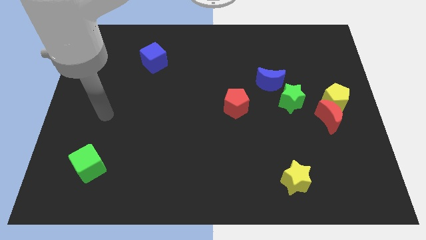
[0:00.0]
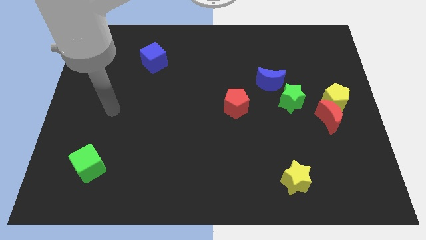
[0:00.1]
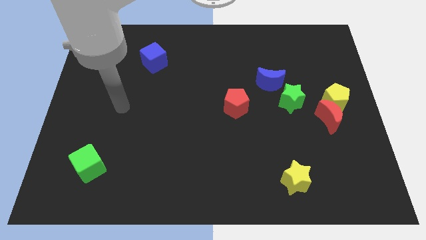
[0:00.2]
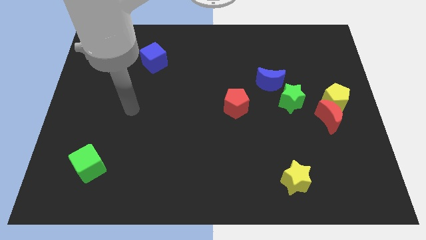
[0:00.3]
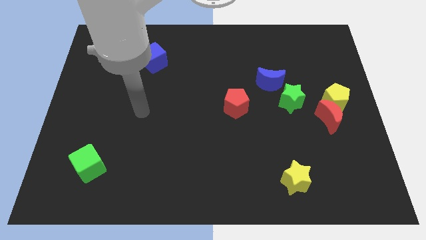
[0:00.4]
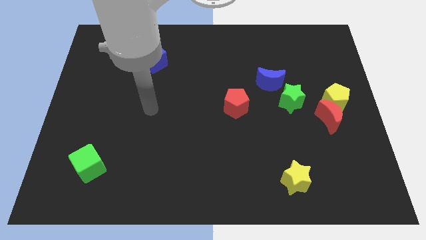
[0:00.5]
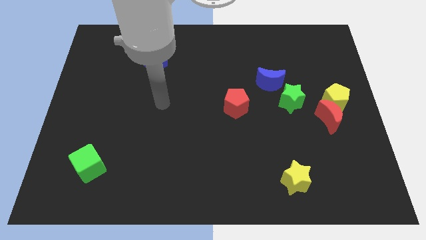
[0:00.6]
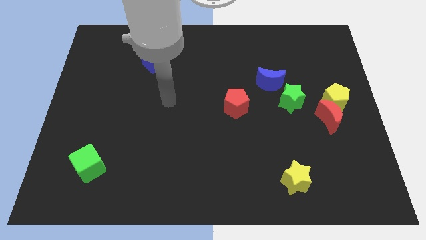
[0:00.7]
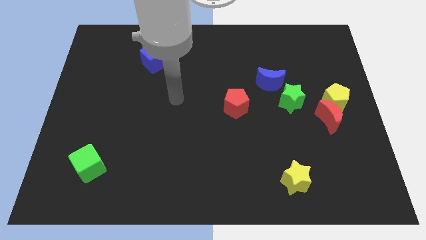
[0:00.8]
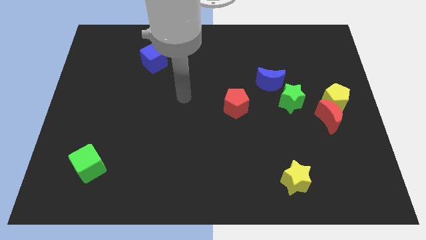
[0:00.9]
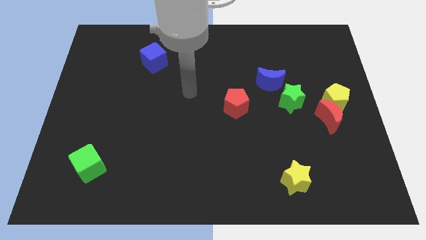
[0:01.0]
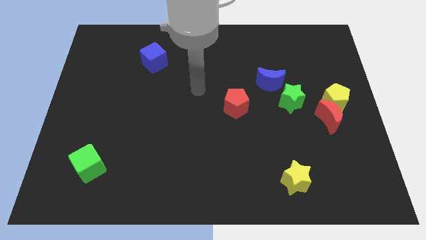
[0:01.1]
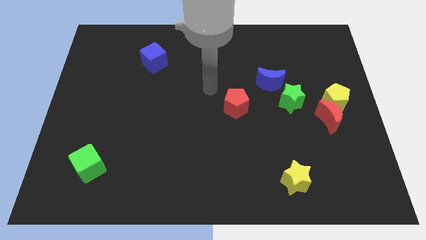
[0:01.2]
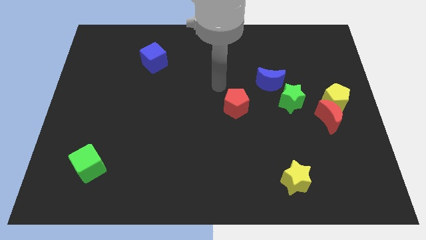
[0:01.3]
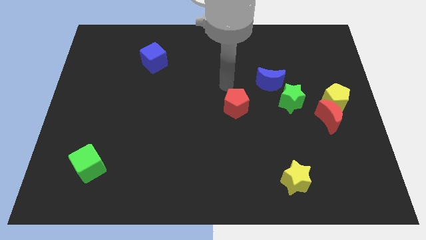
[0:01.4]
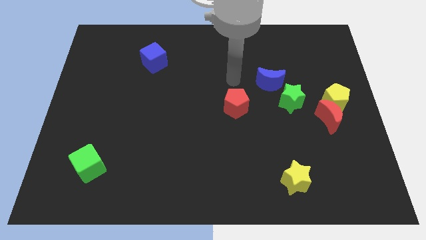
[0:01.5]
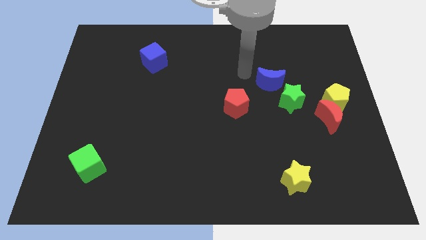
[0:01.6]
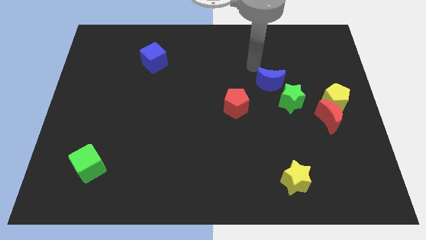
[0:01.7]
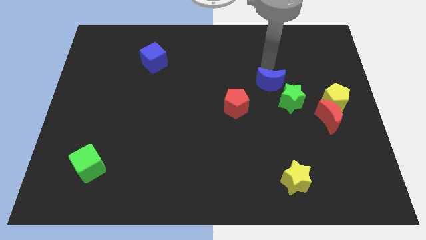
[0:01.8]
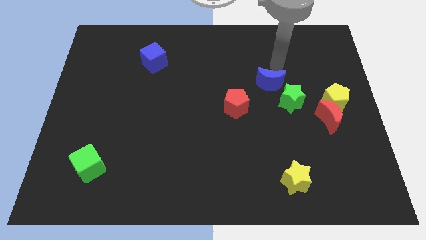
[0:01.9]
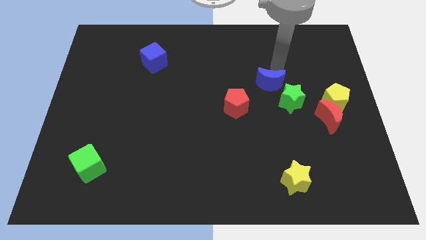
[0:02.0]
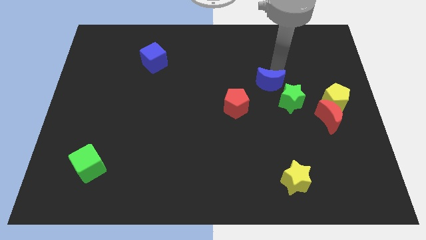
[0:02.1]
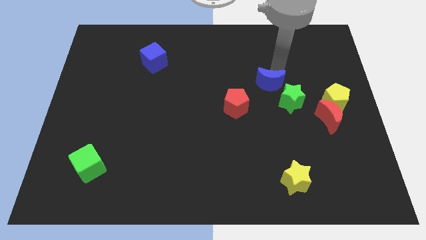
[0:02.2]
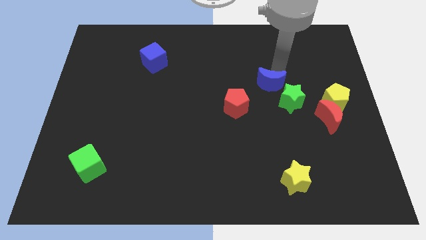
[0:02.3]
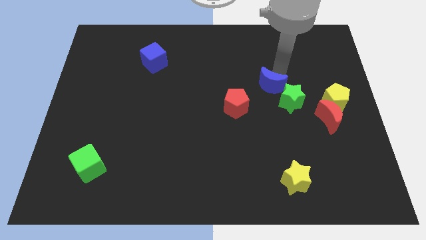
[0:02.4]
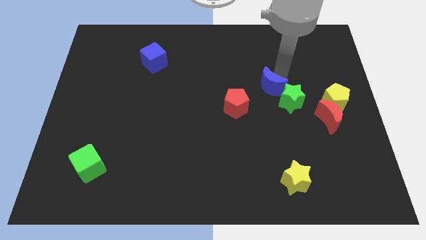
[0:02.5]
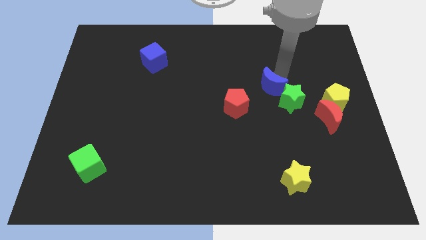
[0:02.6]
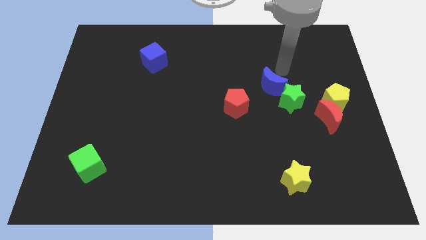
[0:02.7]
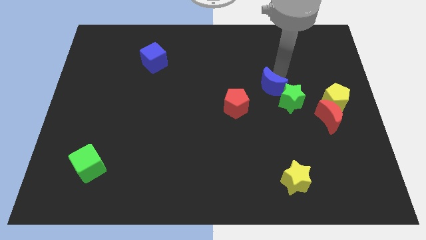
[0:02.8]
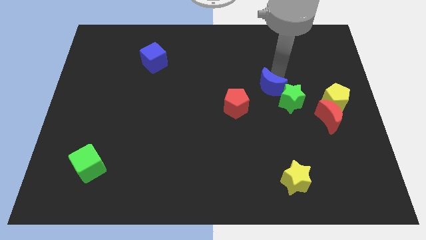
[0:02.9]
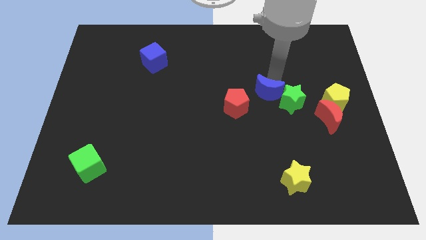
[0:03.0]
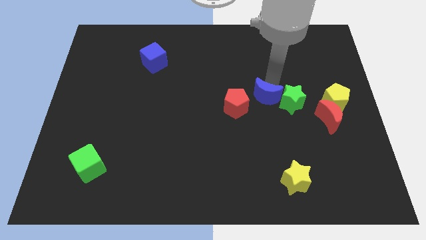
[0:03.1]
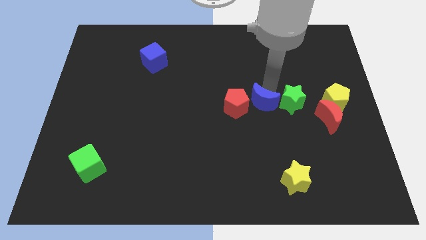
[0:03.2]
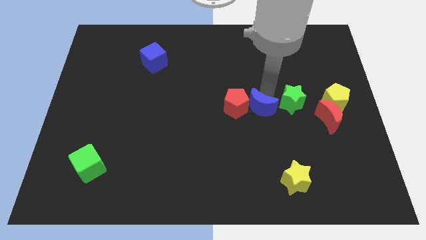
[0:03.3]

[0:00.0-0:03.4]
slightly slide the blue moon down and to the left diagonally

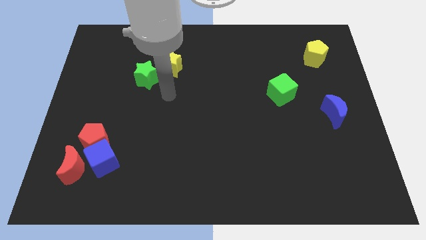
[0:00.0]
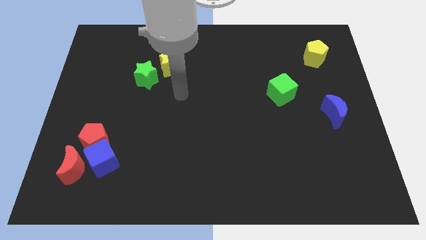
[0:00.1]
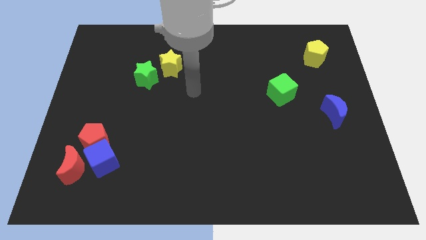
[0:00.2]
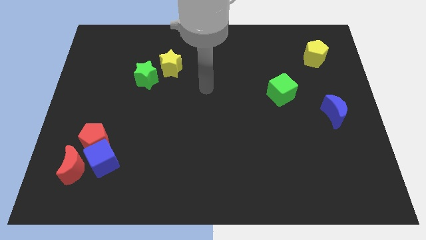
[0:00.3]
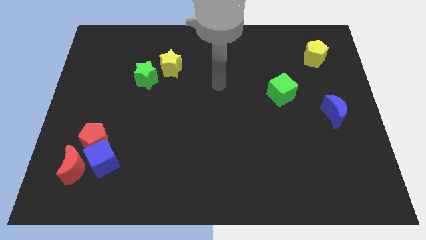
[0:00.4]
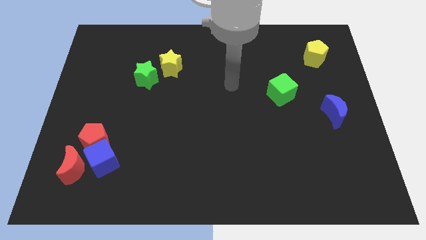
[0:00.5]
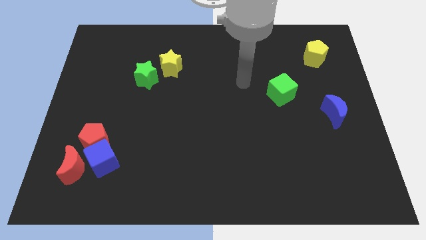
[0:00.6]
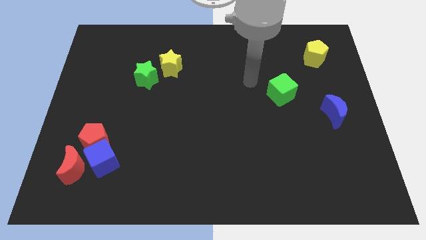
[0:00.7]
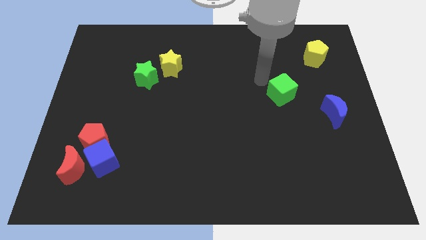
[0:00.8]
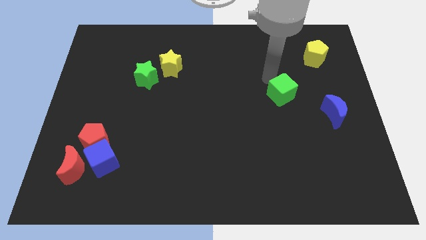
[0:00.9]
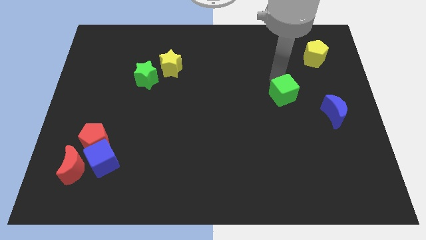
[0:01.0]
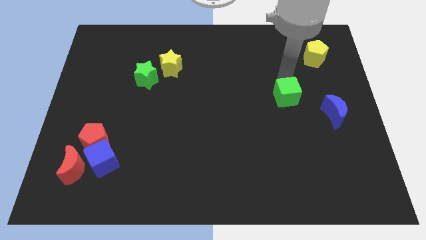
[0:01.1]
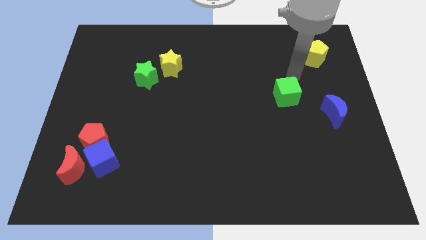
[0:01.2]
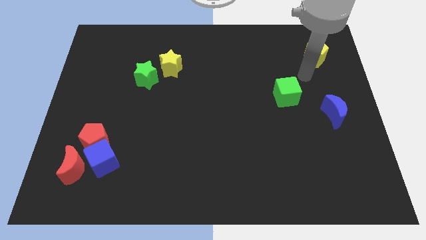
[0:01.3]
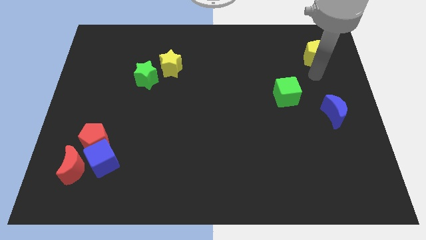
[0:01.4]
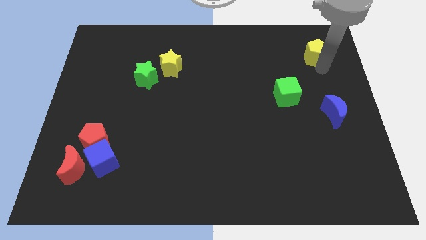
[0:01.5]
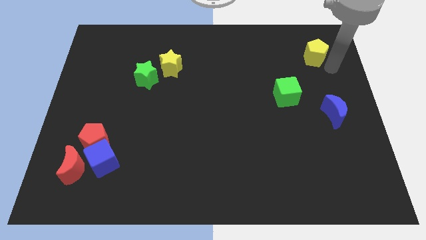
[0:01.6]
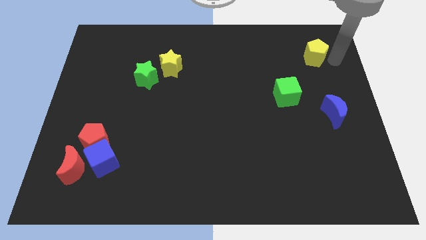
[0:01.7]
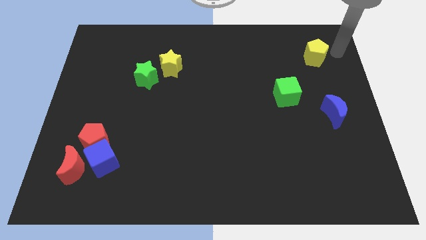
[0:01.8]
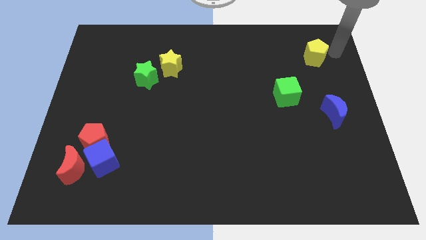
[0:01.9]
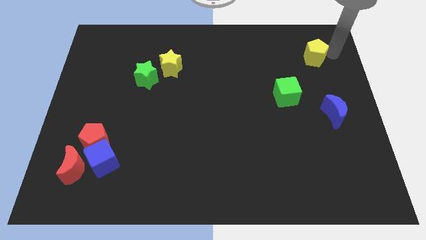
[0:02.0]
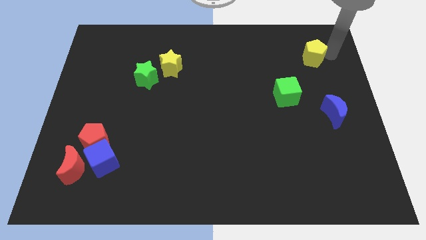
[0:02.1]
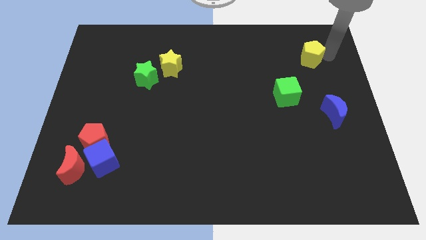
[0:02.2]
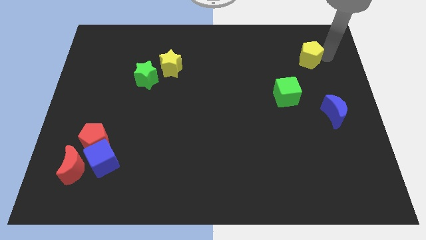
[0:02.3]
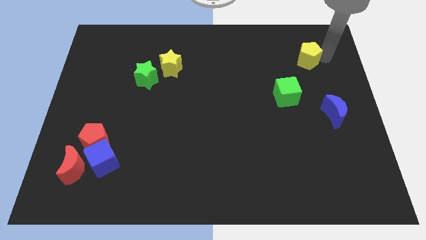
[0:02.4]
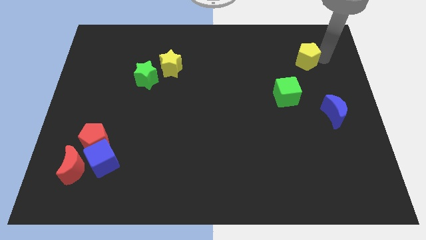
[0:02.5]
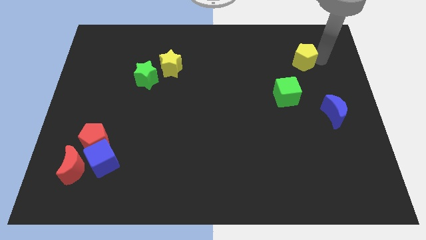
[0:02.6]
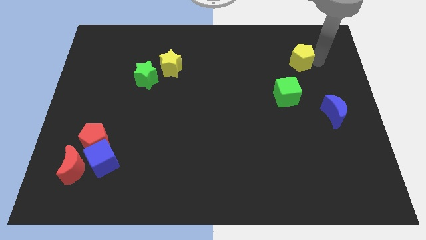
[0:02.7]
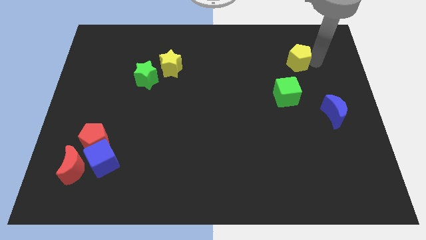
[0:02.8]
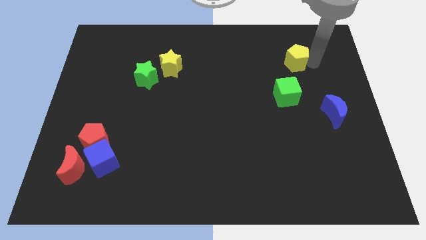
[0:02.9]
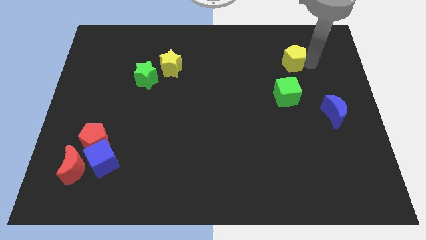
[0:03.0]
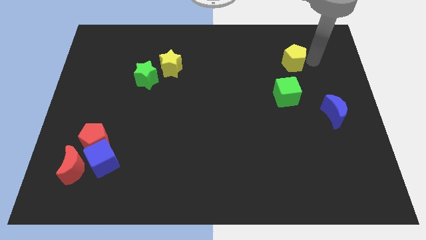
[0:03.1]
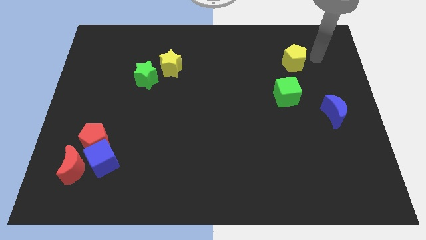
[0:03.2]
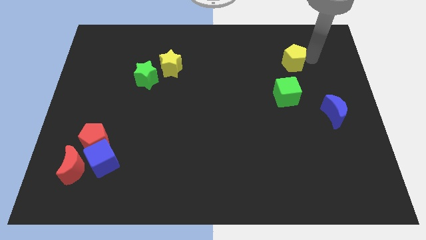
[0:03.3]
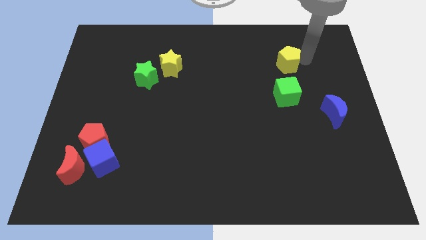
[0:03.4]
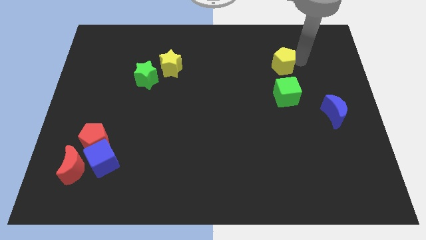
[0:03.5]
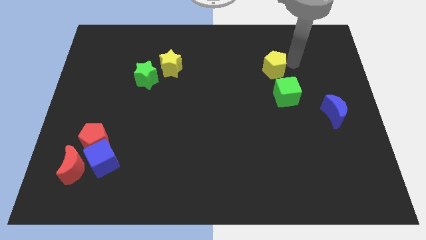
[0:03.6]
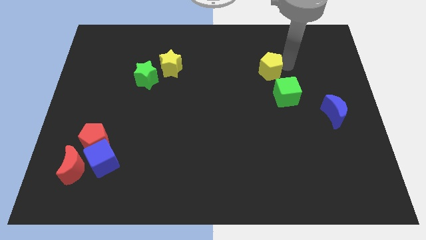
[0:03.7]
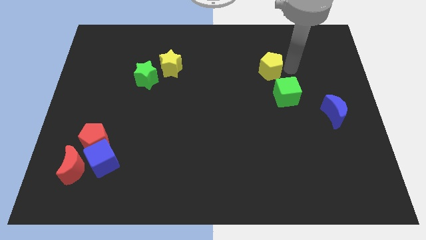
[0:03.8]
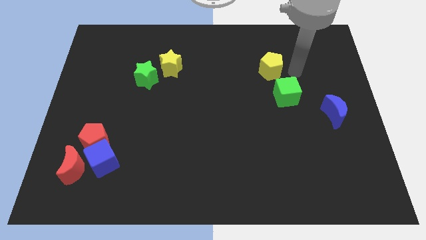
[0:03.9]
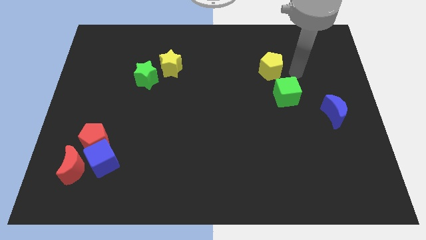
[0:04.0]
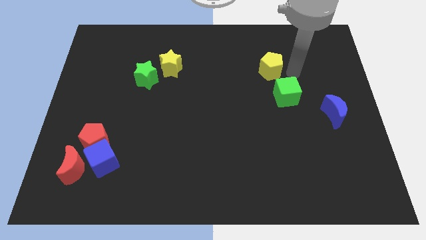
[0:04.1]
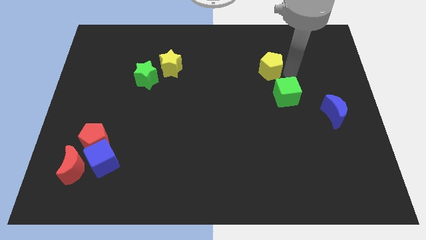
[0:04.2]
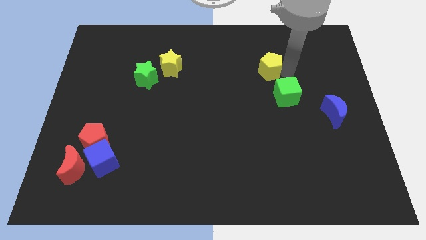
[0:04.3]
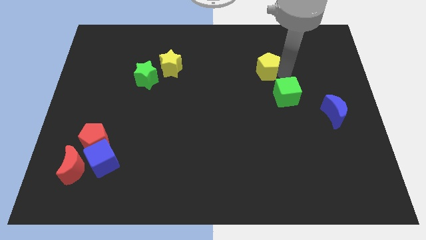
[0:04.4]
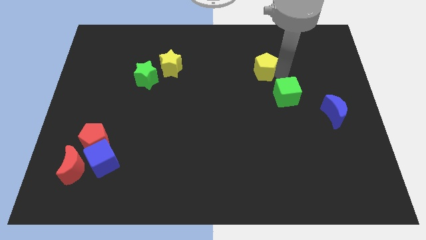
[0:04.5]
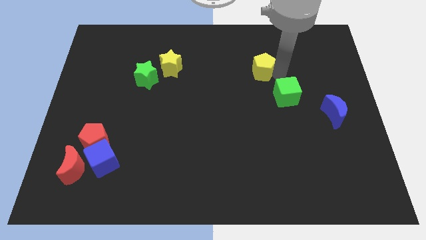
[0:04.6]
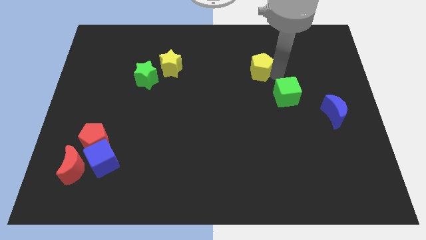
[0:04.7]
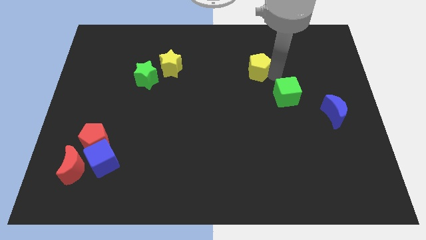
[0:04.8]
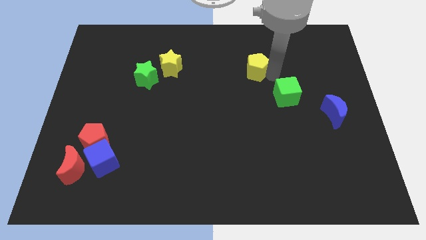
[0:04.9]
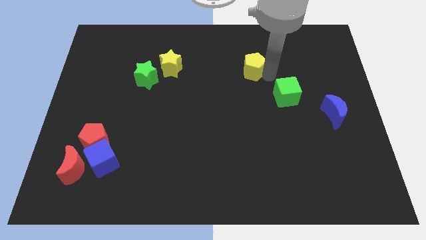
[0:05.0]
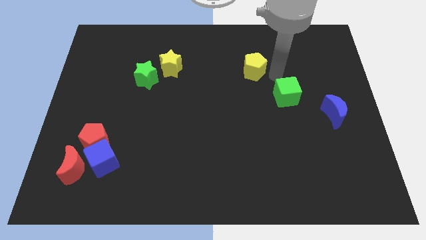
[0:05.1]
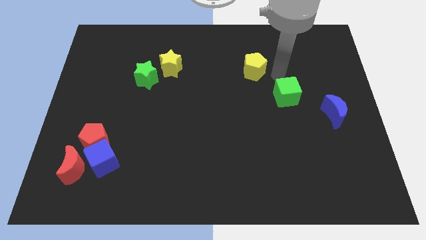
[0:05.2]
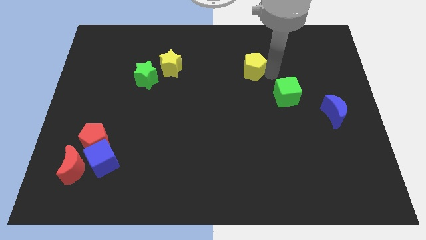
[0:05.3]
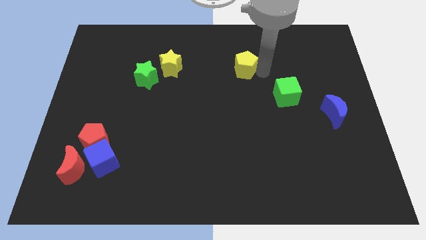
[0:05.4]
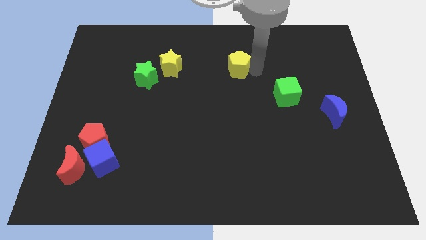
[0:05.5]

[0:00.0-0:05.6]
push the yellow pentagon left
